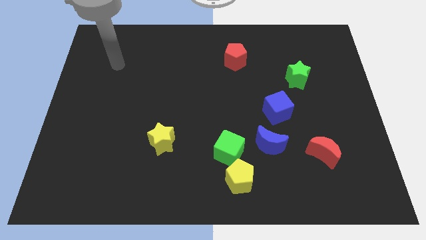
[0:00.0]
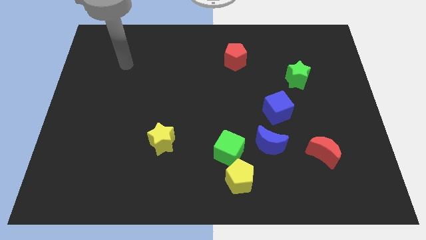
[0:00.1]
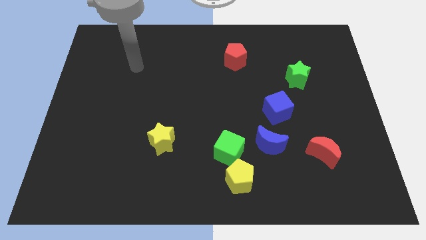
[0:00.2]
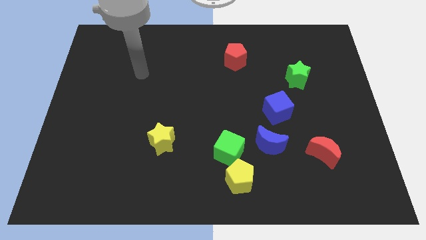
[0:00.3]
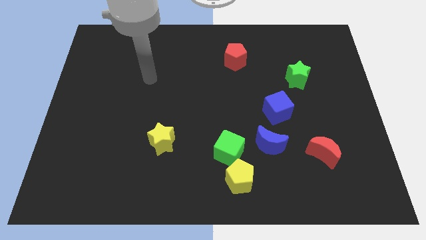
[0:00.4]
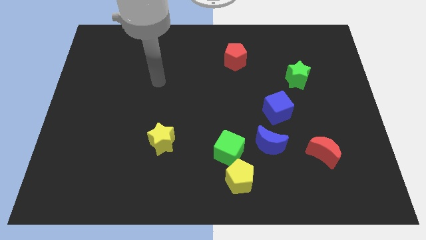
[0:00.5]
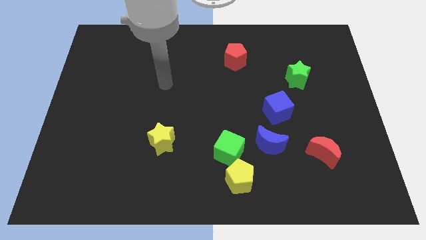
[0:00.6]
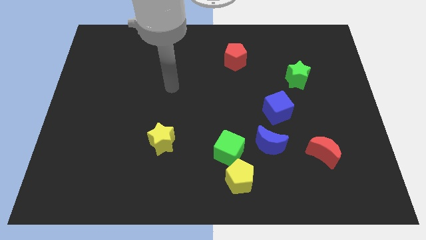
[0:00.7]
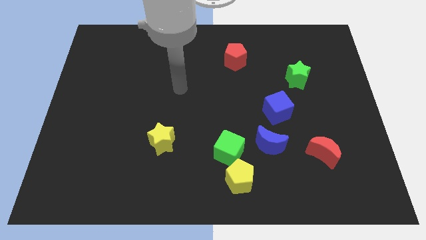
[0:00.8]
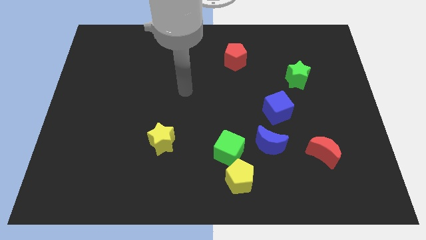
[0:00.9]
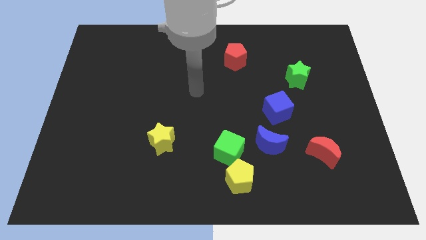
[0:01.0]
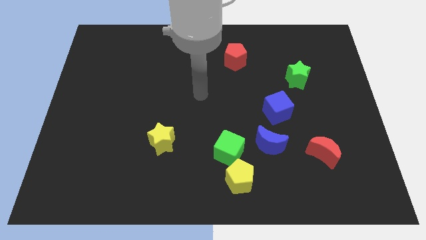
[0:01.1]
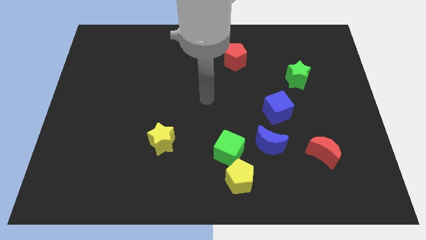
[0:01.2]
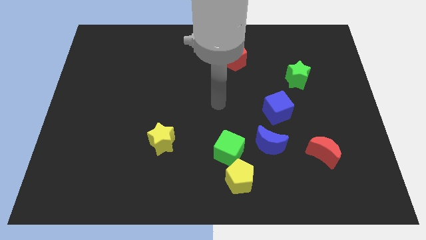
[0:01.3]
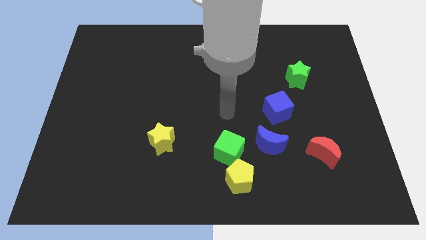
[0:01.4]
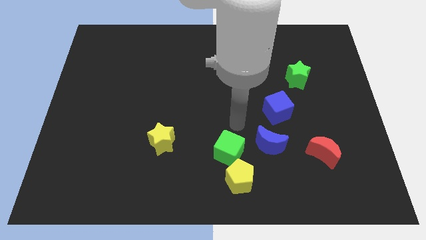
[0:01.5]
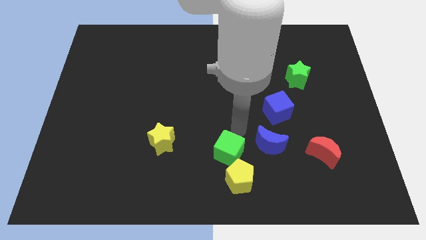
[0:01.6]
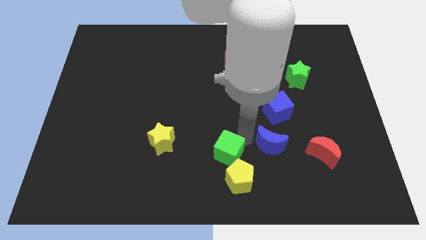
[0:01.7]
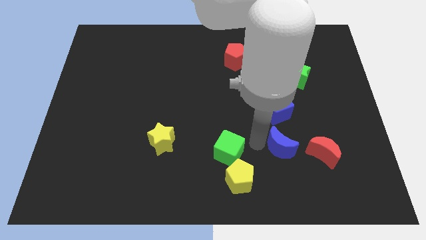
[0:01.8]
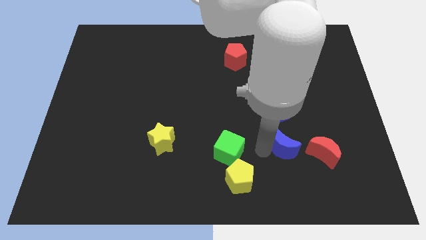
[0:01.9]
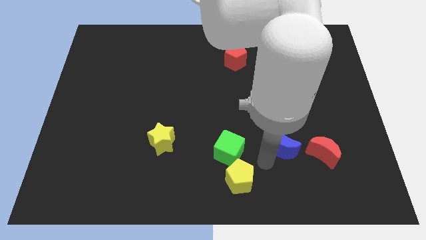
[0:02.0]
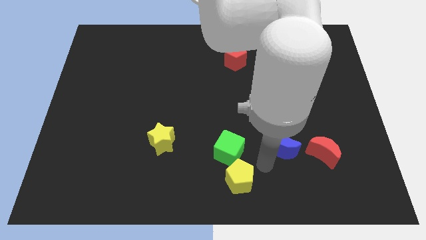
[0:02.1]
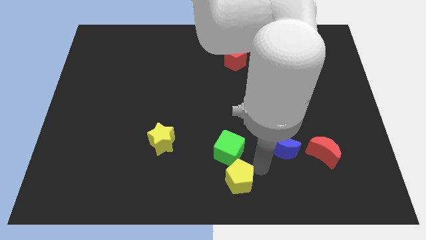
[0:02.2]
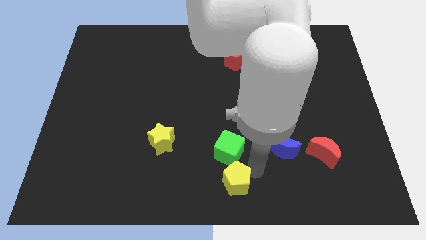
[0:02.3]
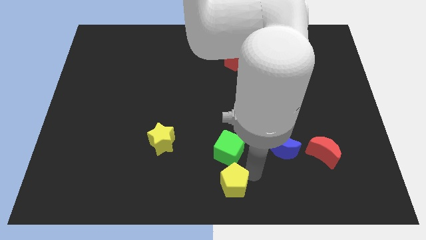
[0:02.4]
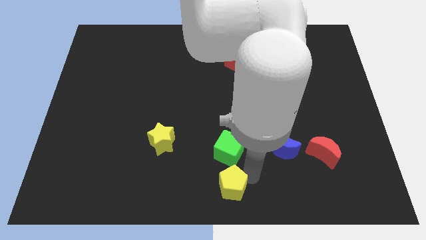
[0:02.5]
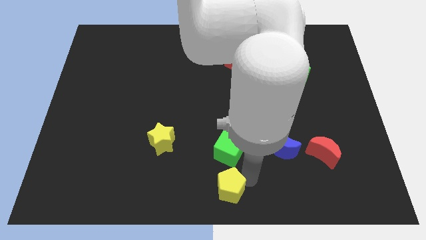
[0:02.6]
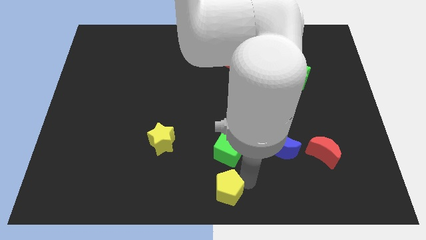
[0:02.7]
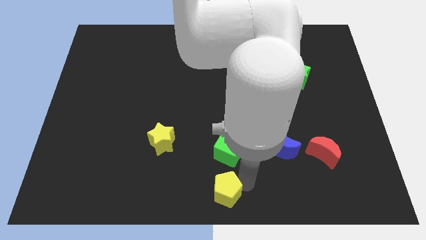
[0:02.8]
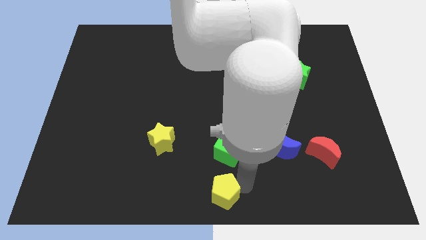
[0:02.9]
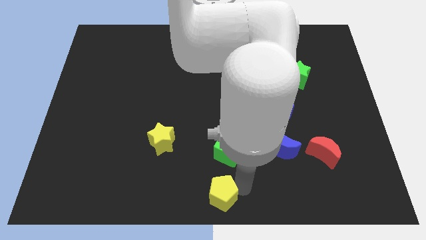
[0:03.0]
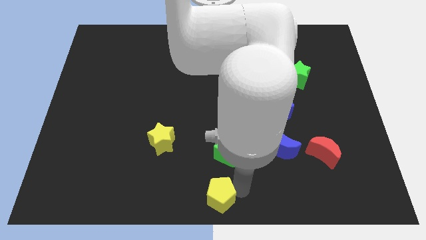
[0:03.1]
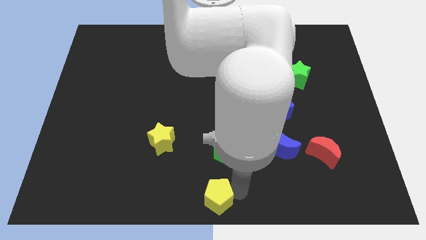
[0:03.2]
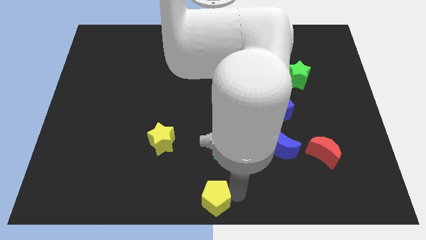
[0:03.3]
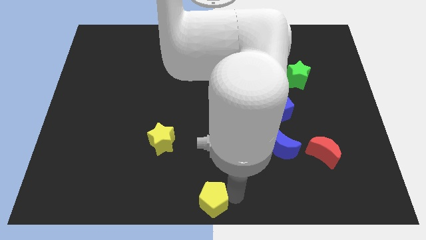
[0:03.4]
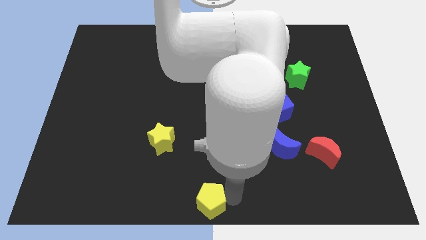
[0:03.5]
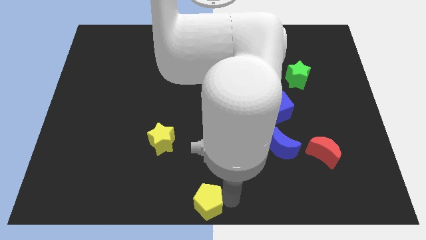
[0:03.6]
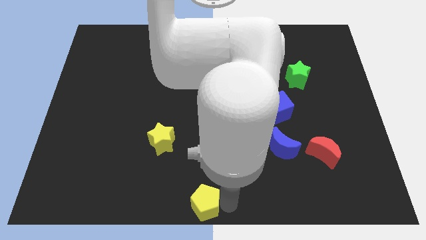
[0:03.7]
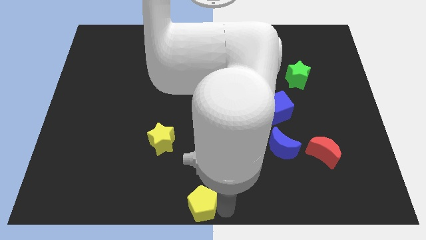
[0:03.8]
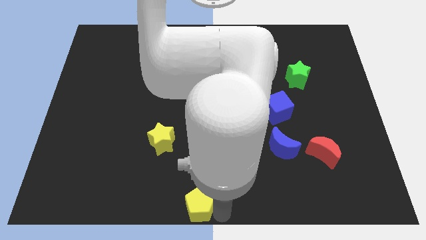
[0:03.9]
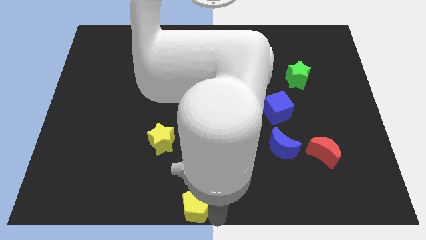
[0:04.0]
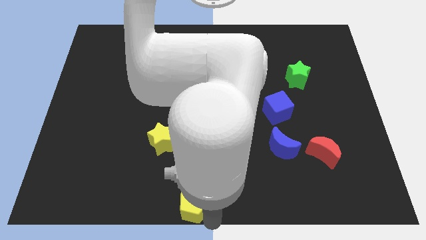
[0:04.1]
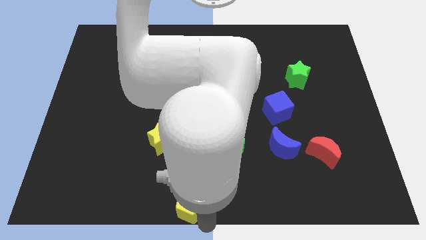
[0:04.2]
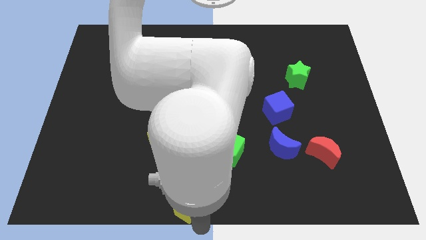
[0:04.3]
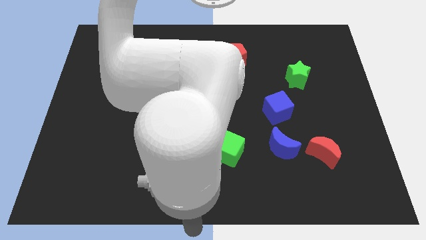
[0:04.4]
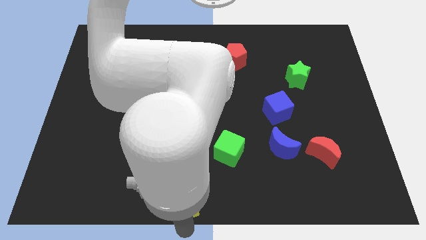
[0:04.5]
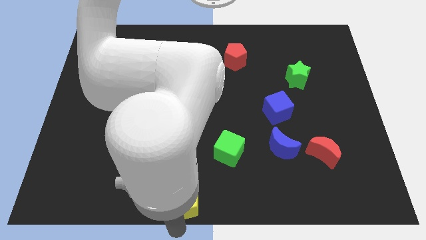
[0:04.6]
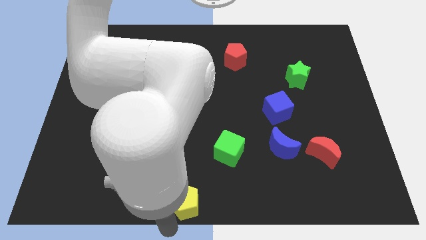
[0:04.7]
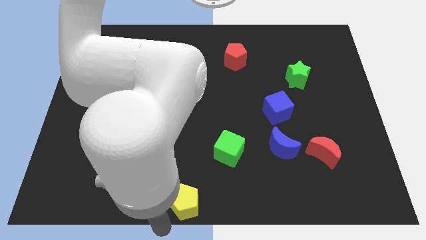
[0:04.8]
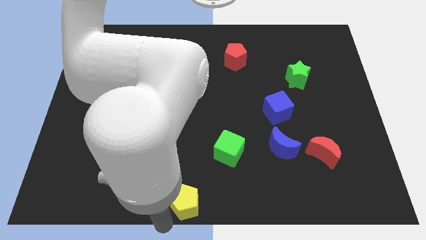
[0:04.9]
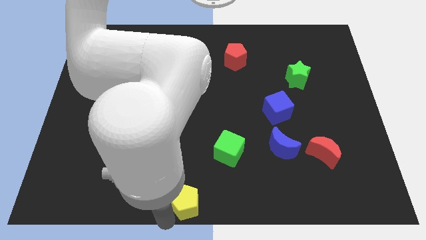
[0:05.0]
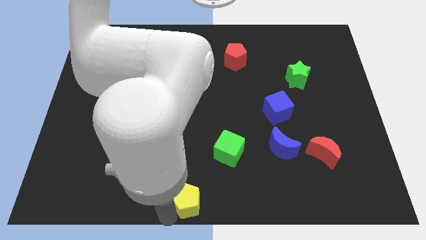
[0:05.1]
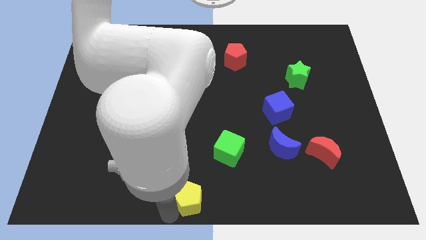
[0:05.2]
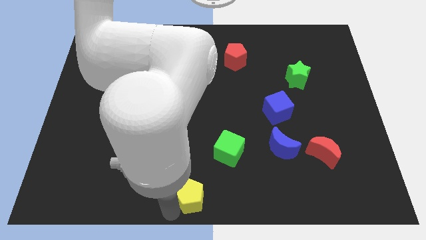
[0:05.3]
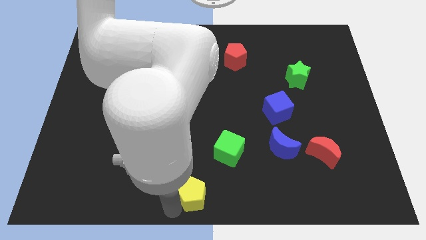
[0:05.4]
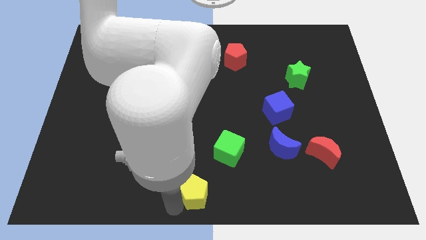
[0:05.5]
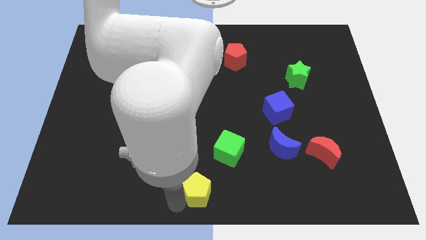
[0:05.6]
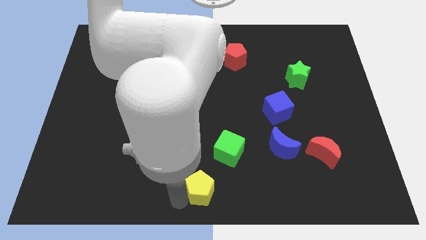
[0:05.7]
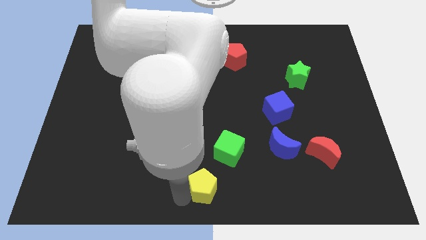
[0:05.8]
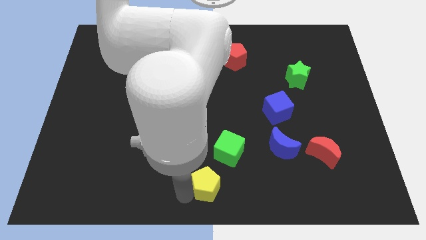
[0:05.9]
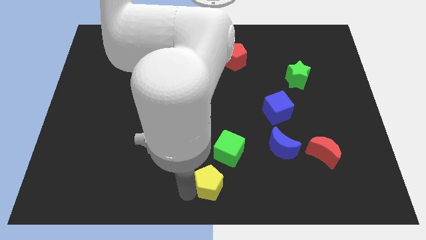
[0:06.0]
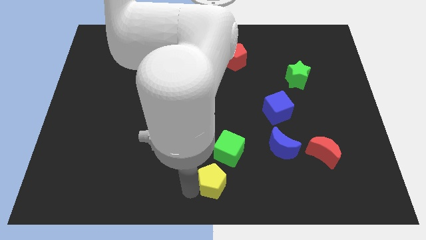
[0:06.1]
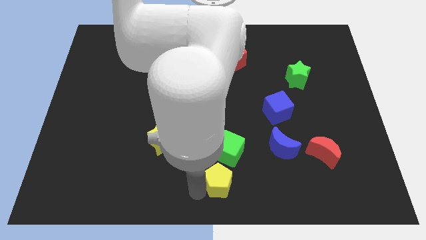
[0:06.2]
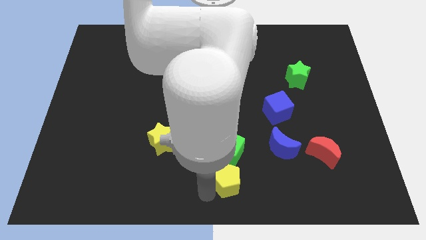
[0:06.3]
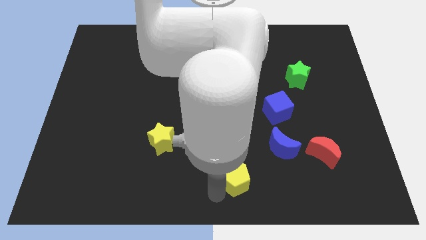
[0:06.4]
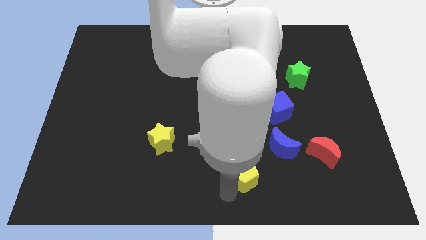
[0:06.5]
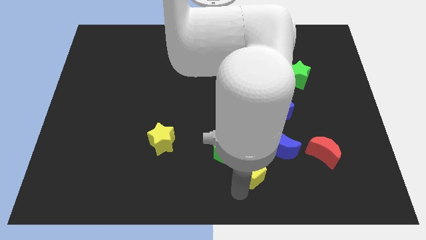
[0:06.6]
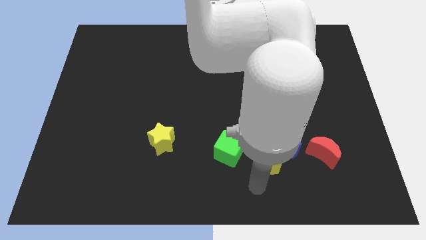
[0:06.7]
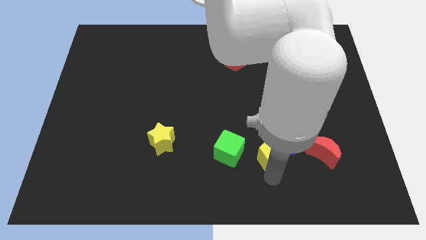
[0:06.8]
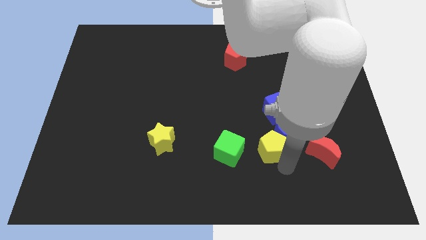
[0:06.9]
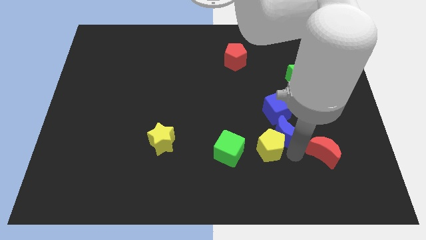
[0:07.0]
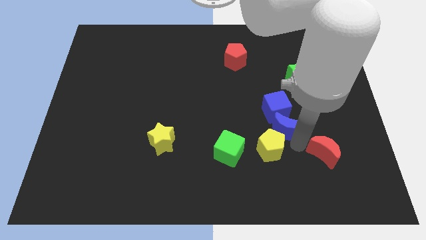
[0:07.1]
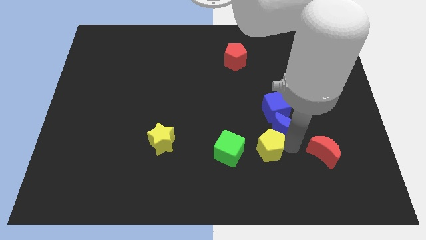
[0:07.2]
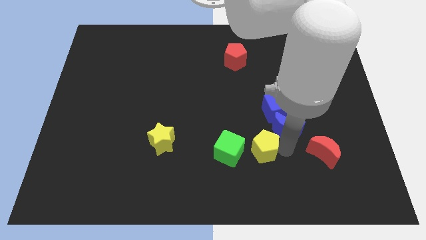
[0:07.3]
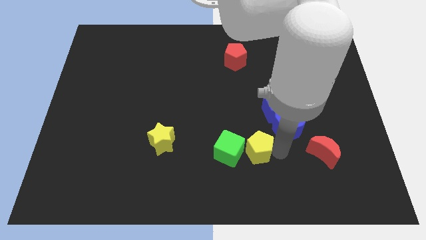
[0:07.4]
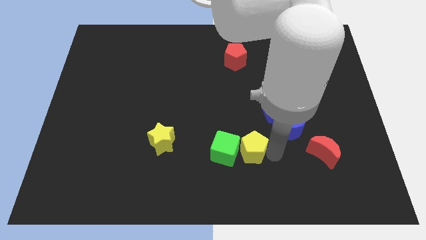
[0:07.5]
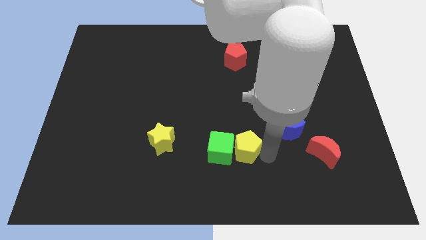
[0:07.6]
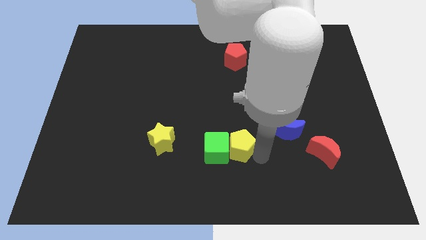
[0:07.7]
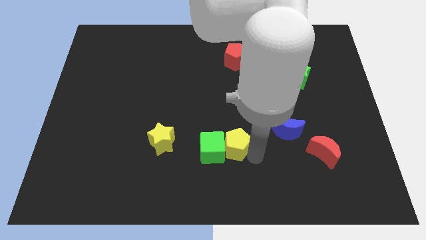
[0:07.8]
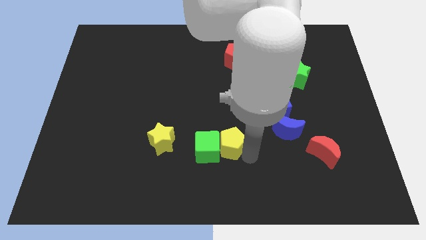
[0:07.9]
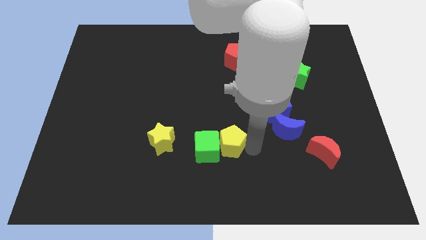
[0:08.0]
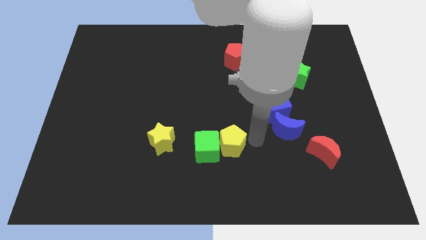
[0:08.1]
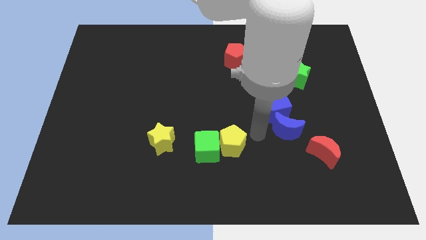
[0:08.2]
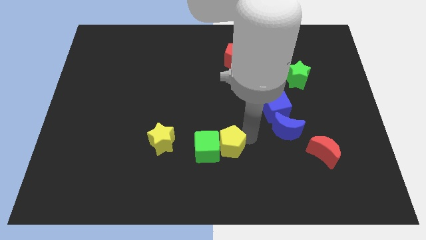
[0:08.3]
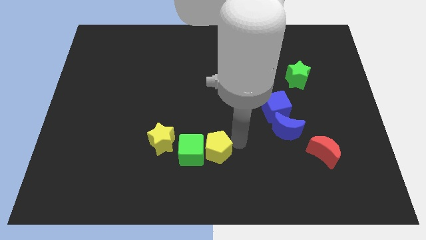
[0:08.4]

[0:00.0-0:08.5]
slide the yellow pentagon somewhat diagonally up and to the left
